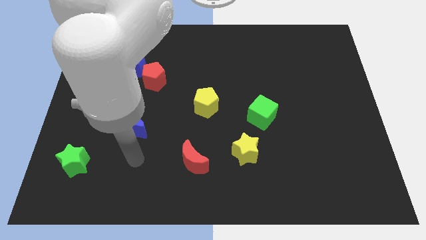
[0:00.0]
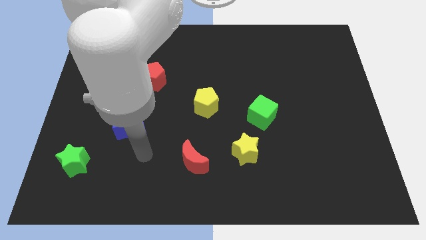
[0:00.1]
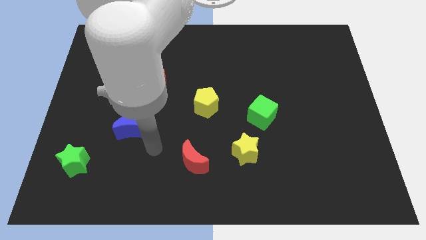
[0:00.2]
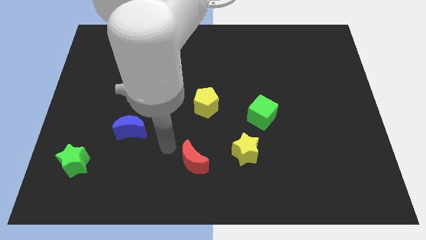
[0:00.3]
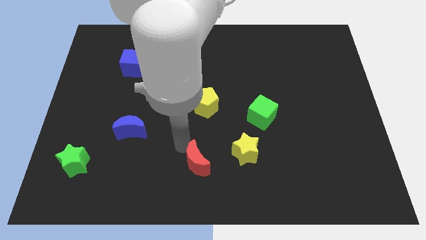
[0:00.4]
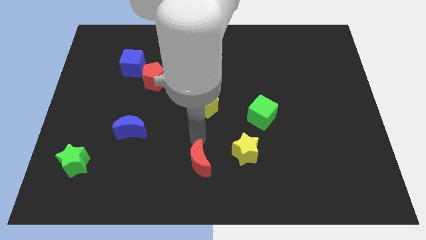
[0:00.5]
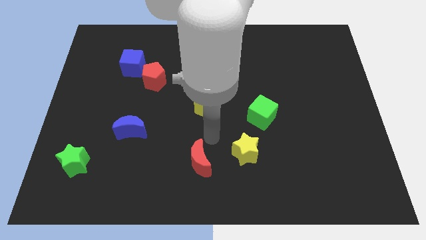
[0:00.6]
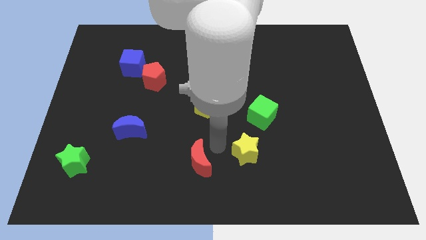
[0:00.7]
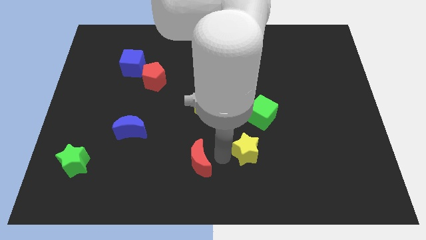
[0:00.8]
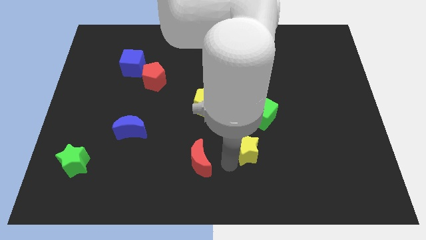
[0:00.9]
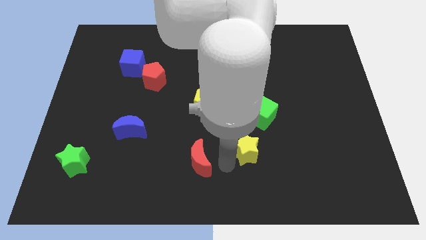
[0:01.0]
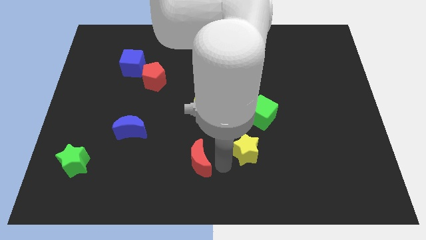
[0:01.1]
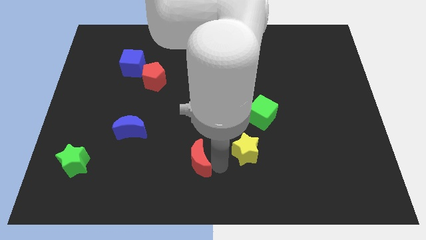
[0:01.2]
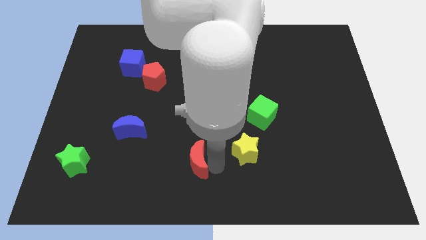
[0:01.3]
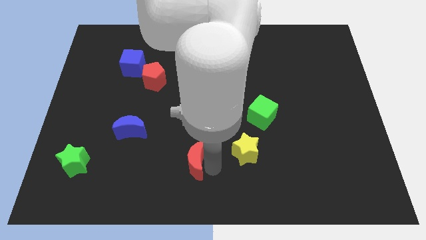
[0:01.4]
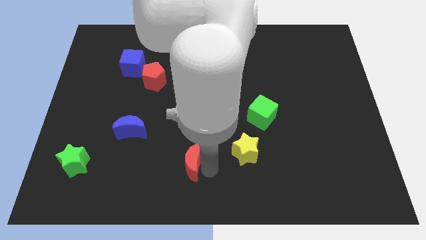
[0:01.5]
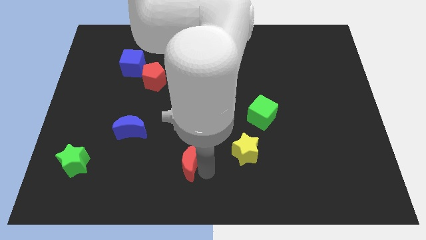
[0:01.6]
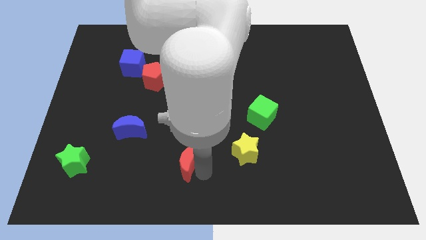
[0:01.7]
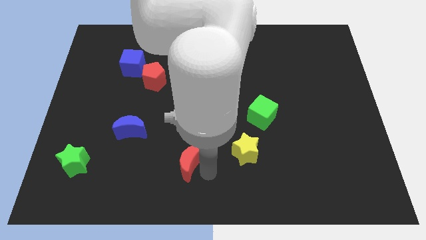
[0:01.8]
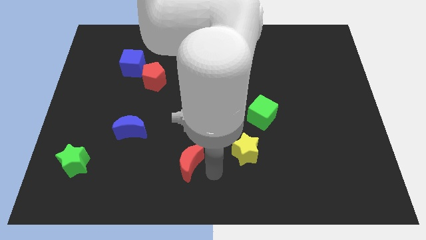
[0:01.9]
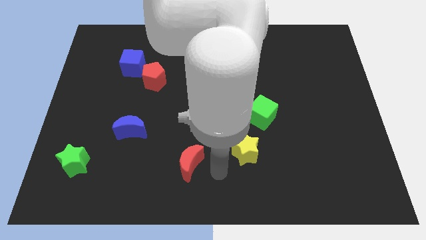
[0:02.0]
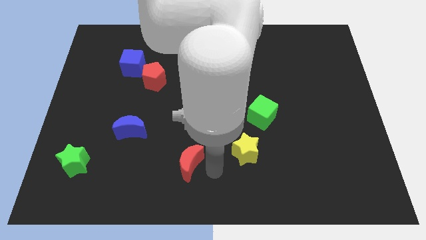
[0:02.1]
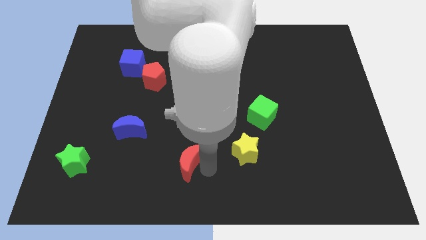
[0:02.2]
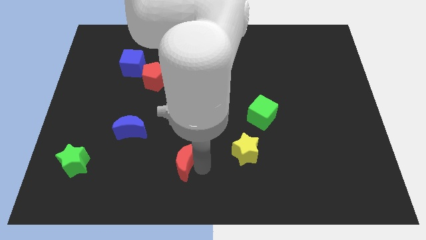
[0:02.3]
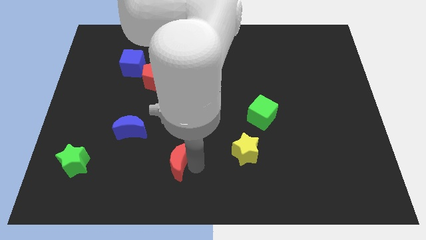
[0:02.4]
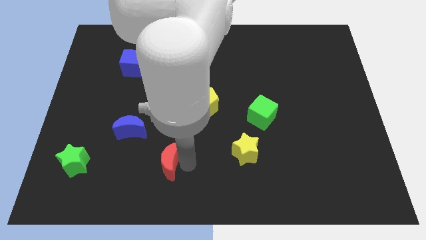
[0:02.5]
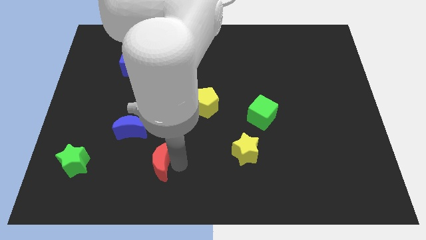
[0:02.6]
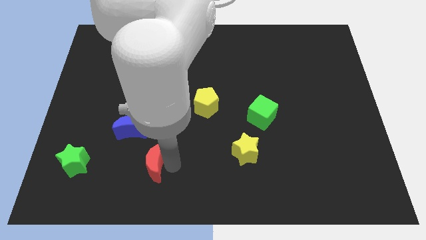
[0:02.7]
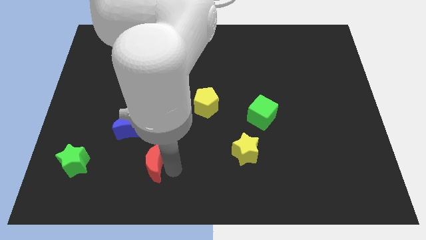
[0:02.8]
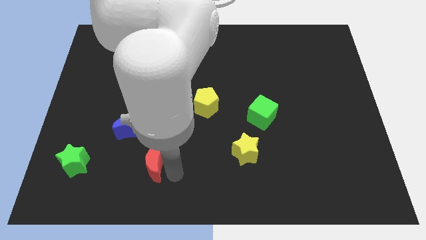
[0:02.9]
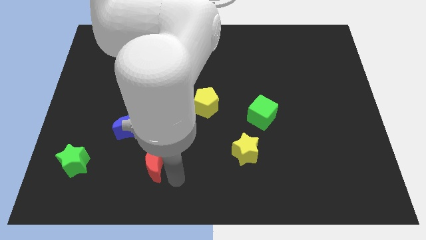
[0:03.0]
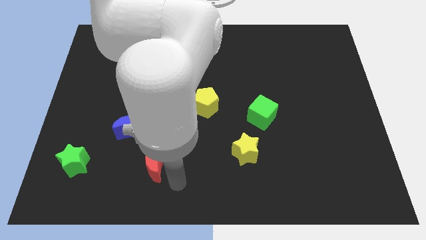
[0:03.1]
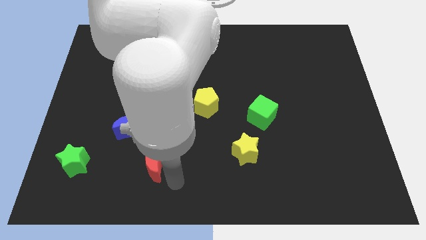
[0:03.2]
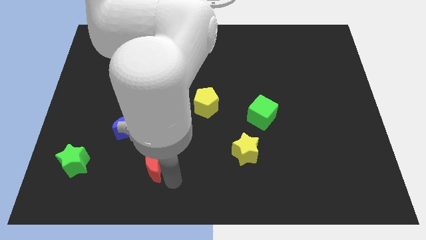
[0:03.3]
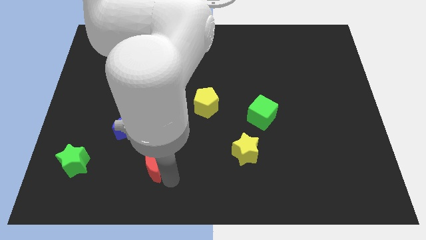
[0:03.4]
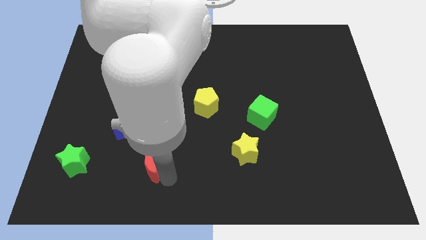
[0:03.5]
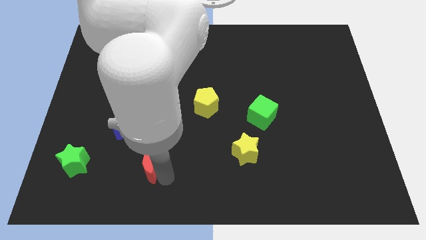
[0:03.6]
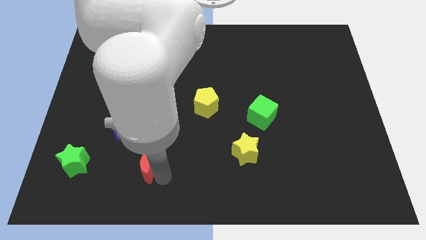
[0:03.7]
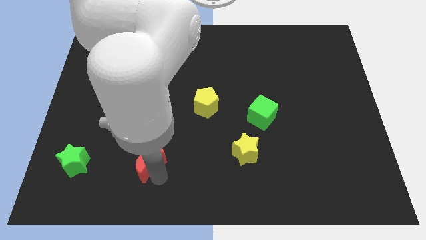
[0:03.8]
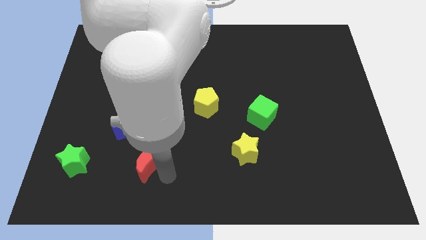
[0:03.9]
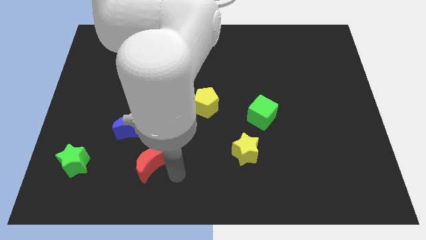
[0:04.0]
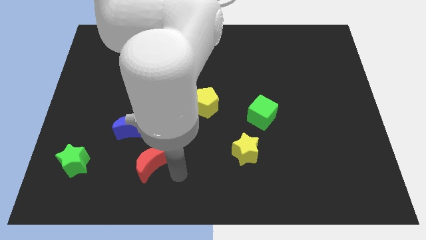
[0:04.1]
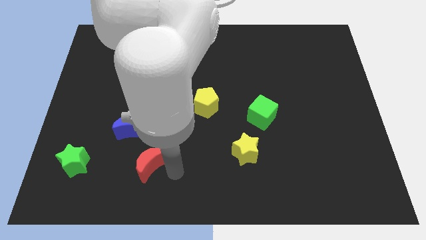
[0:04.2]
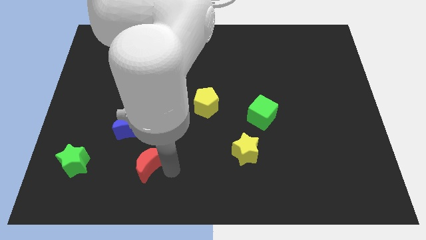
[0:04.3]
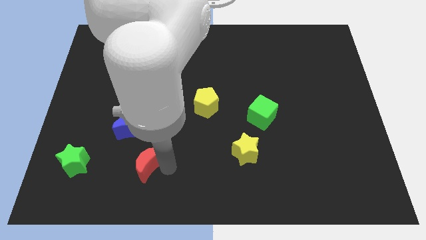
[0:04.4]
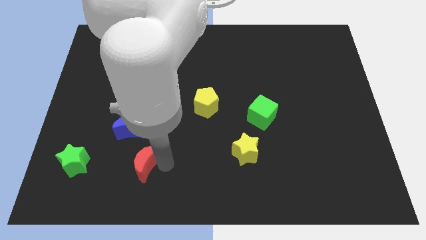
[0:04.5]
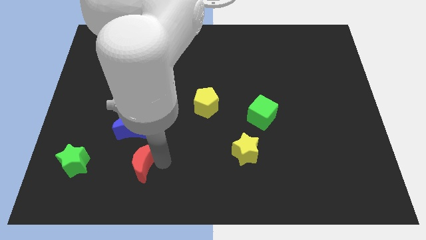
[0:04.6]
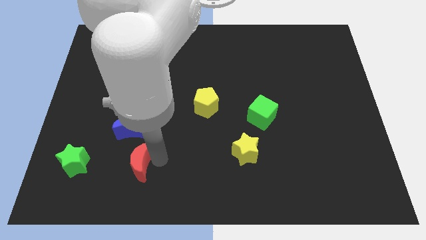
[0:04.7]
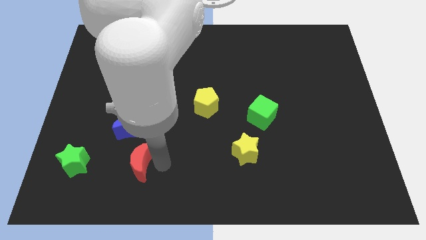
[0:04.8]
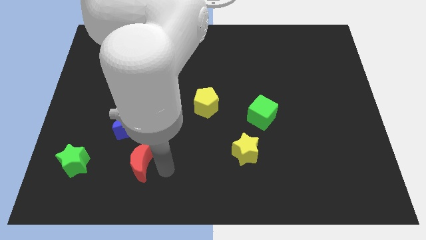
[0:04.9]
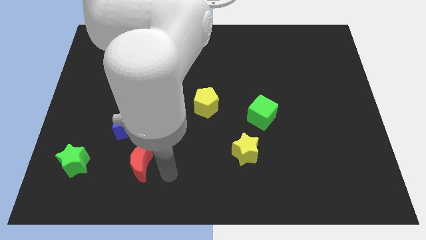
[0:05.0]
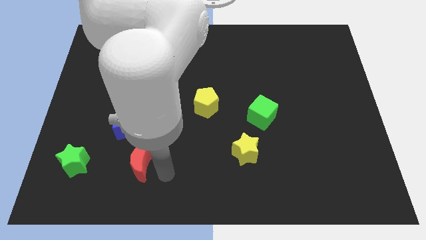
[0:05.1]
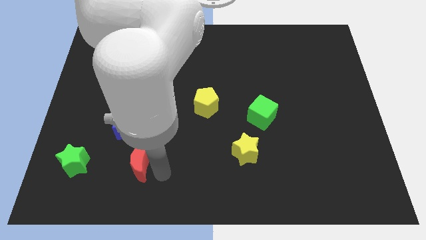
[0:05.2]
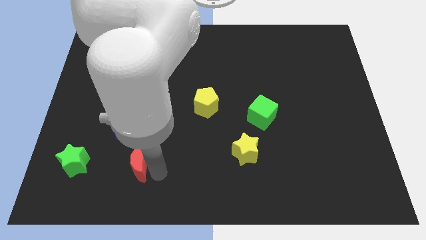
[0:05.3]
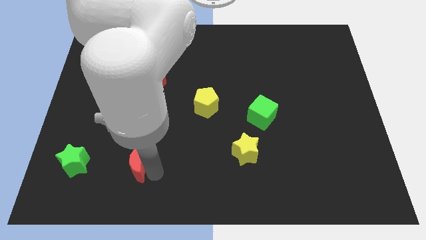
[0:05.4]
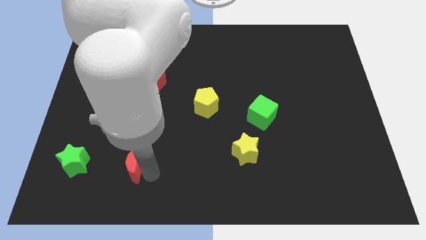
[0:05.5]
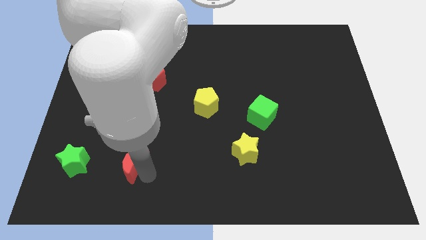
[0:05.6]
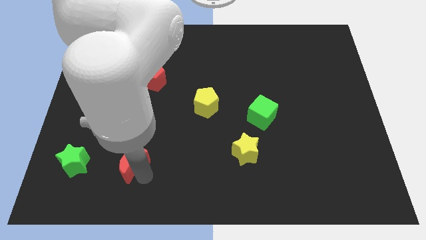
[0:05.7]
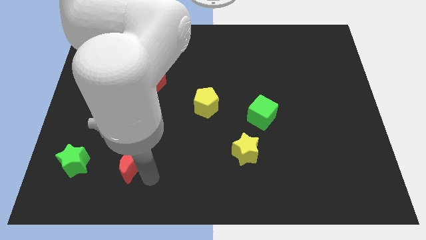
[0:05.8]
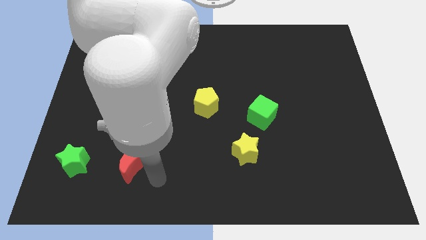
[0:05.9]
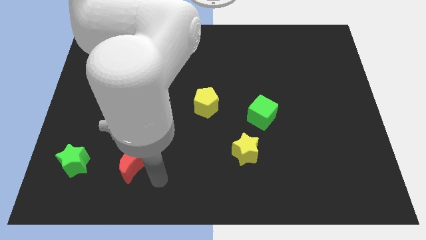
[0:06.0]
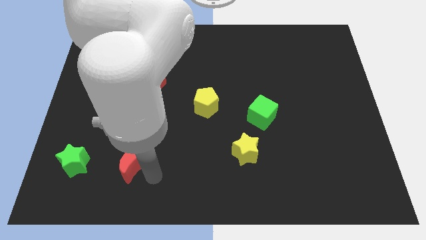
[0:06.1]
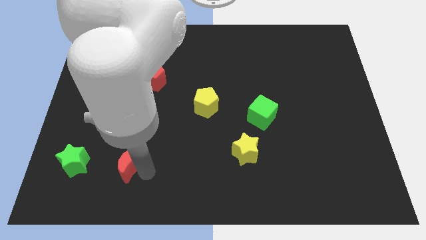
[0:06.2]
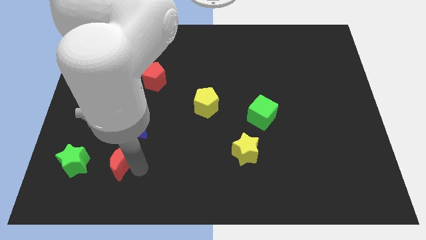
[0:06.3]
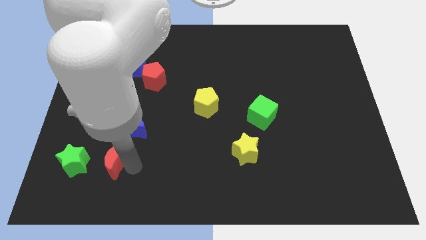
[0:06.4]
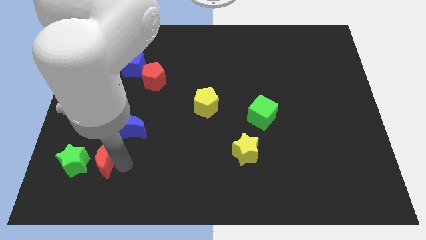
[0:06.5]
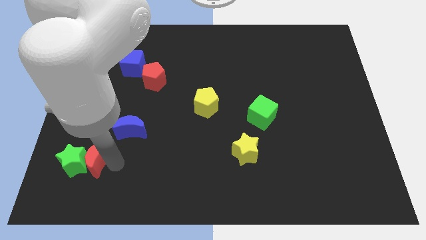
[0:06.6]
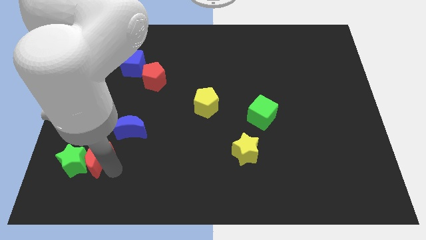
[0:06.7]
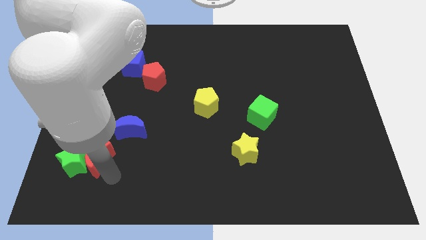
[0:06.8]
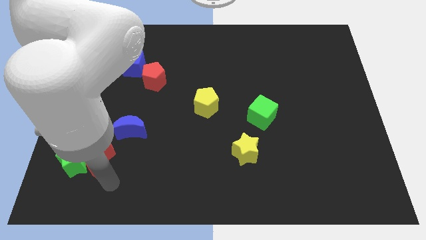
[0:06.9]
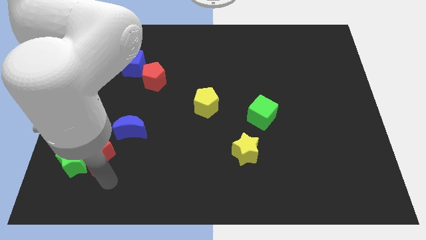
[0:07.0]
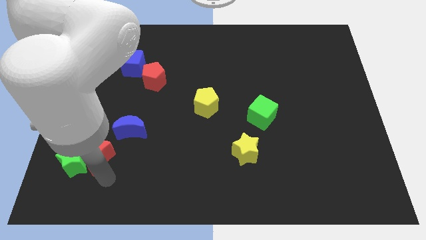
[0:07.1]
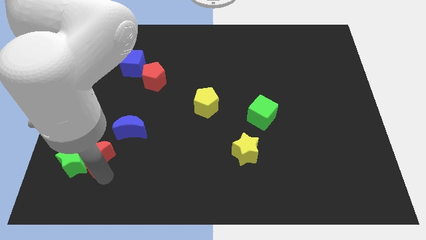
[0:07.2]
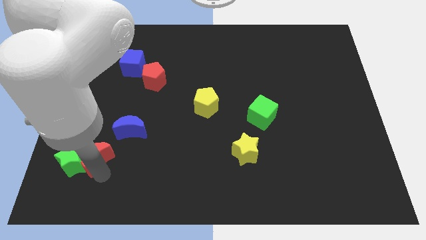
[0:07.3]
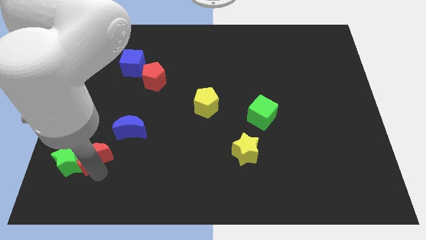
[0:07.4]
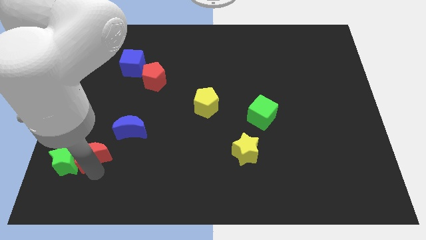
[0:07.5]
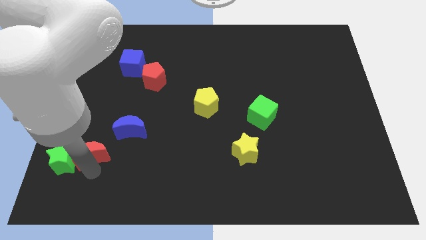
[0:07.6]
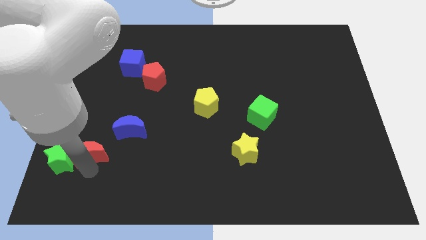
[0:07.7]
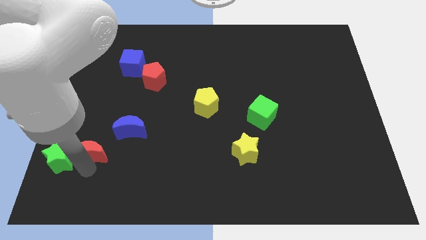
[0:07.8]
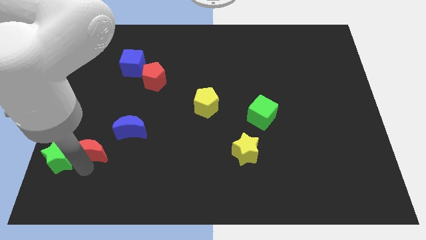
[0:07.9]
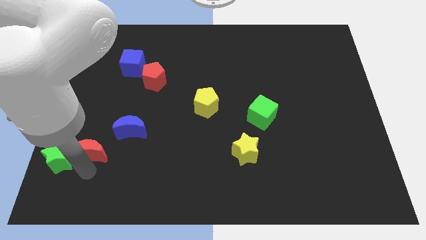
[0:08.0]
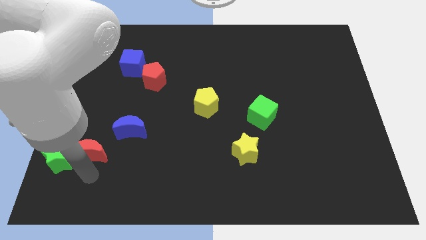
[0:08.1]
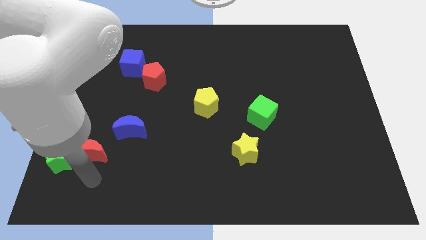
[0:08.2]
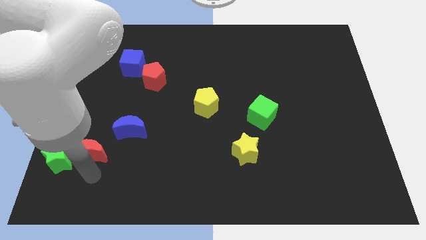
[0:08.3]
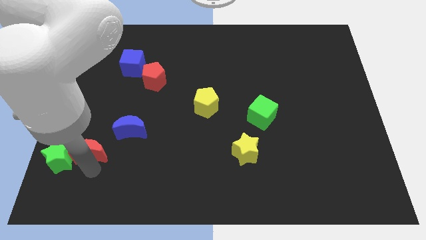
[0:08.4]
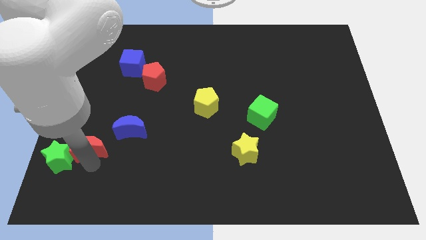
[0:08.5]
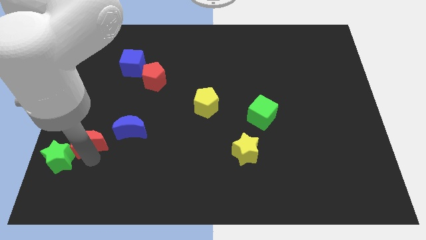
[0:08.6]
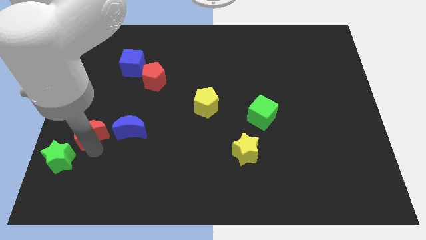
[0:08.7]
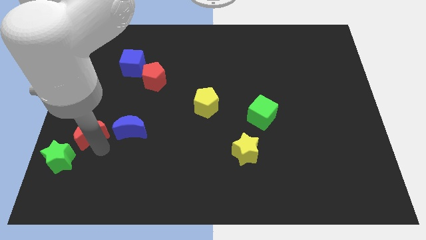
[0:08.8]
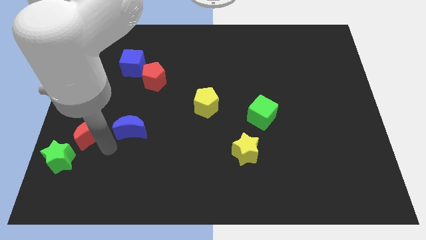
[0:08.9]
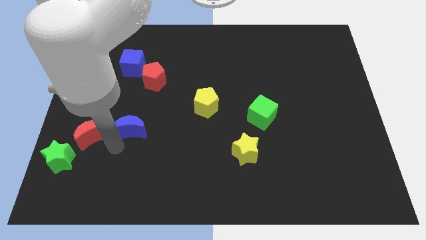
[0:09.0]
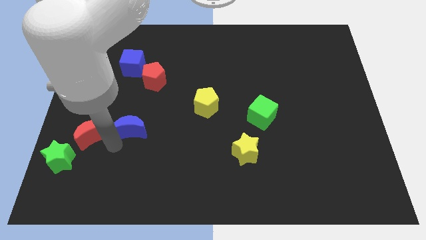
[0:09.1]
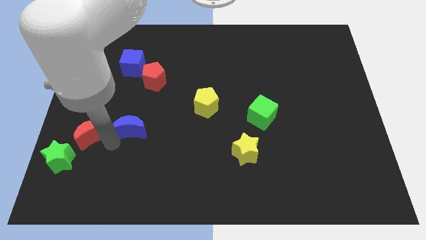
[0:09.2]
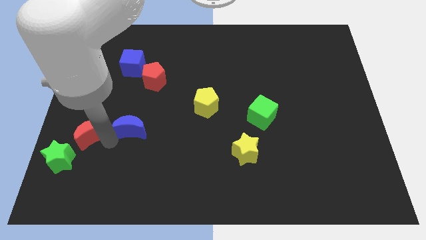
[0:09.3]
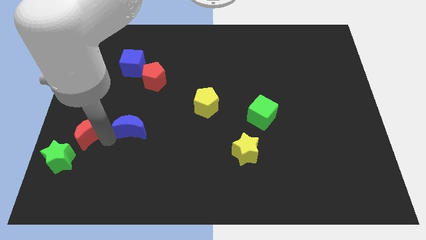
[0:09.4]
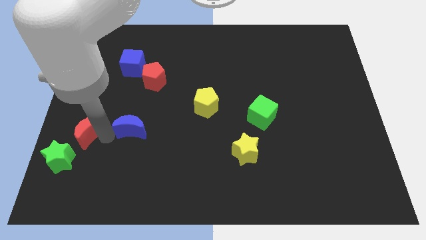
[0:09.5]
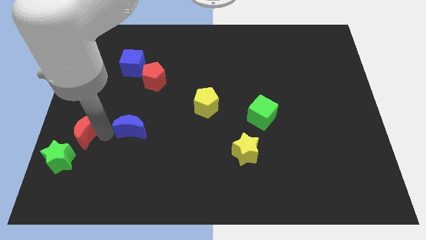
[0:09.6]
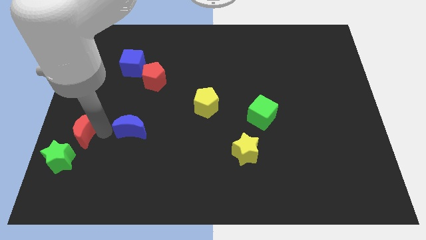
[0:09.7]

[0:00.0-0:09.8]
move the red moon to the left side of the board
